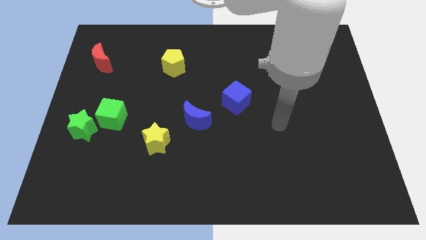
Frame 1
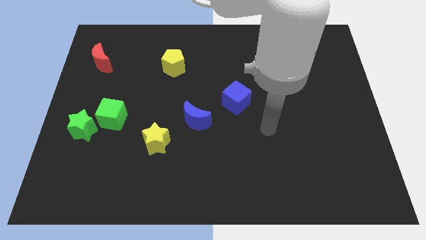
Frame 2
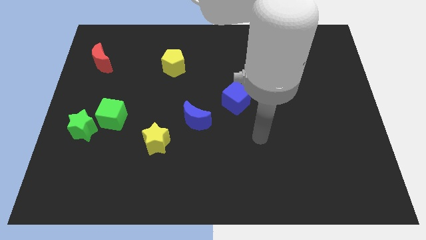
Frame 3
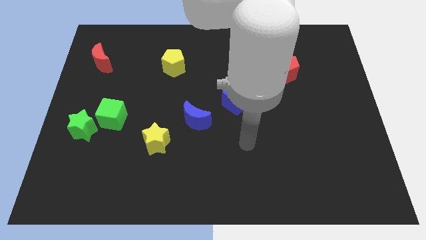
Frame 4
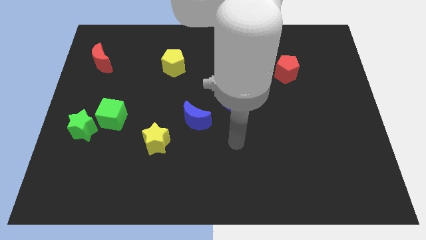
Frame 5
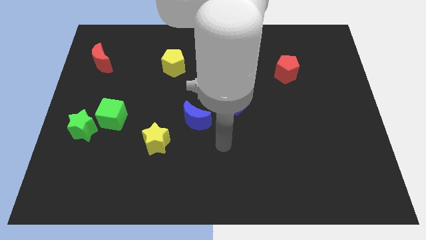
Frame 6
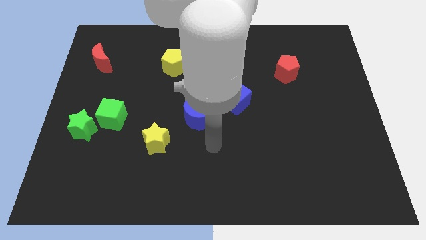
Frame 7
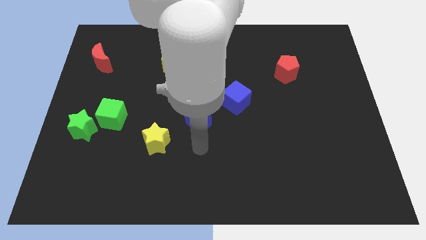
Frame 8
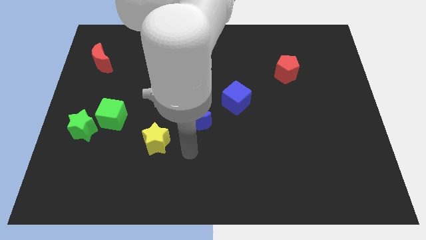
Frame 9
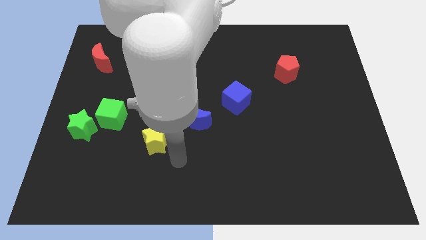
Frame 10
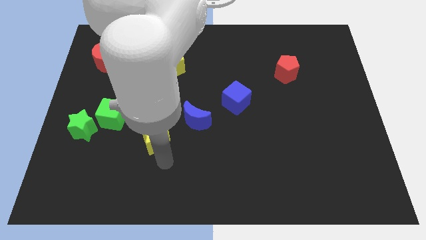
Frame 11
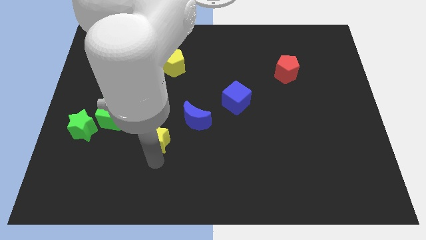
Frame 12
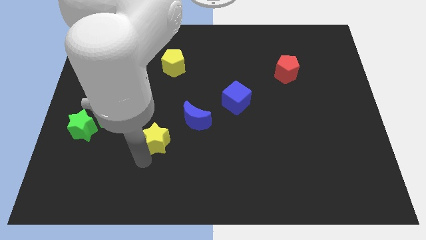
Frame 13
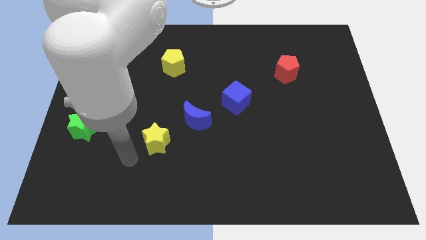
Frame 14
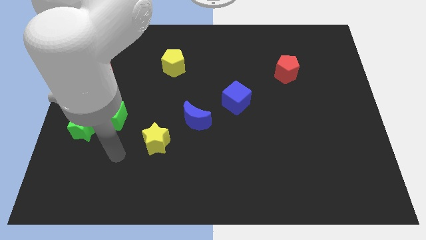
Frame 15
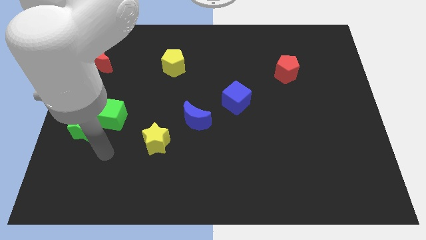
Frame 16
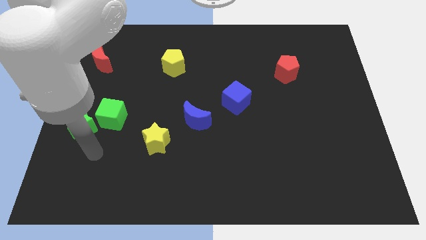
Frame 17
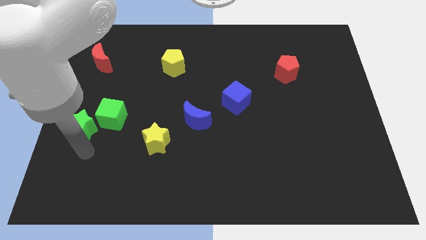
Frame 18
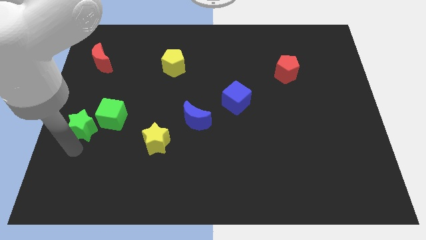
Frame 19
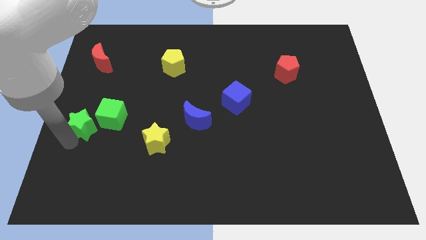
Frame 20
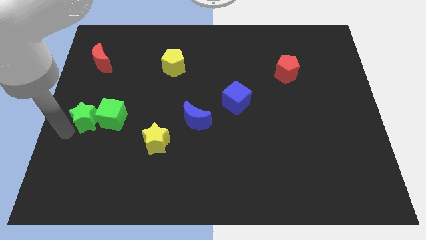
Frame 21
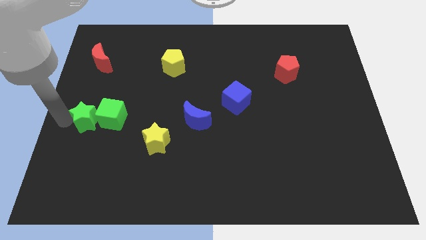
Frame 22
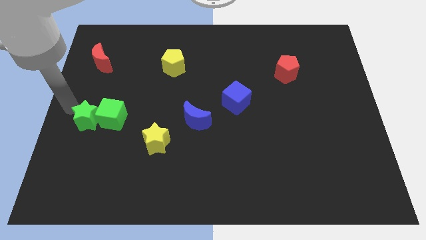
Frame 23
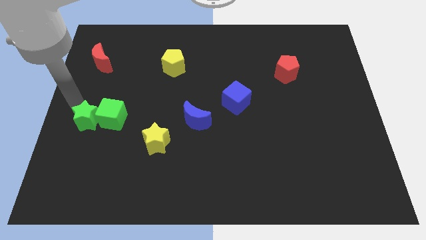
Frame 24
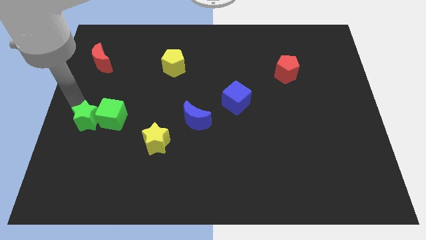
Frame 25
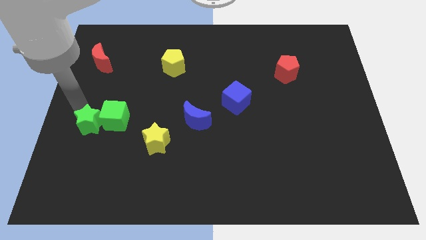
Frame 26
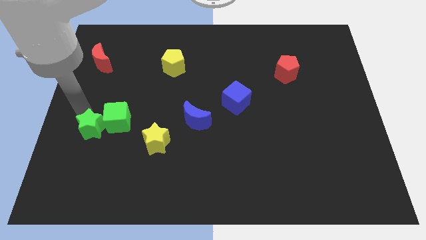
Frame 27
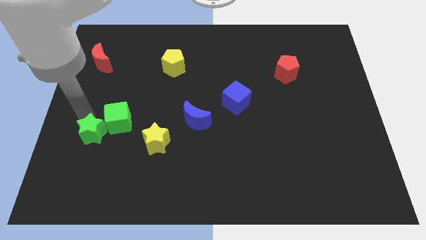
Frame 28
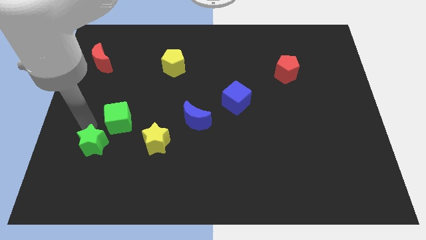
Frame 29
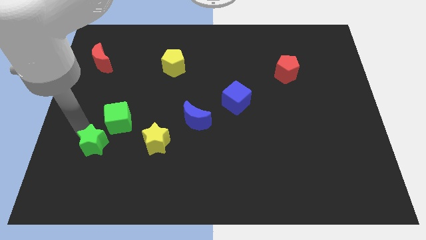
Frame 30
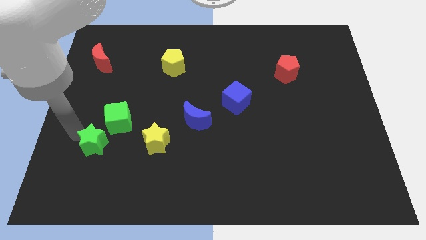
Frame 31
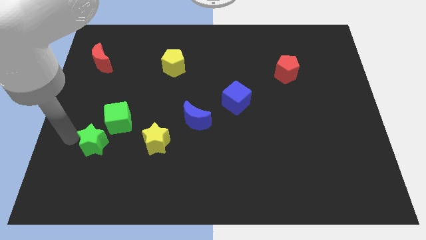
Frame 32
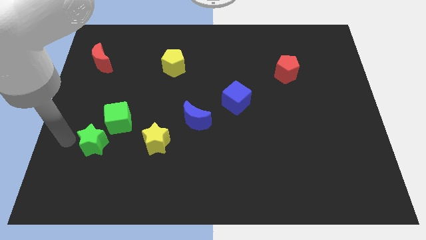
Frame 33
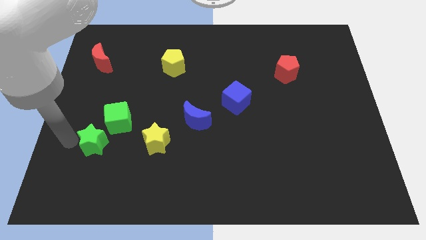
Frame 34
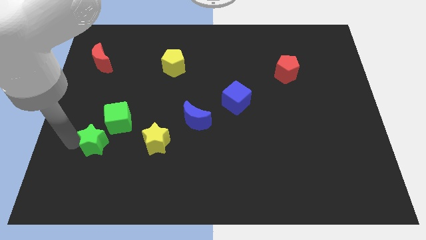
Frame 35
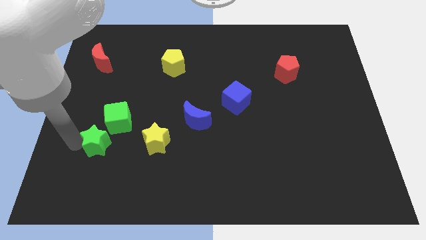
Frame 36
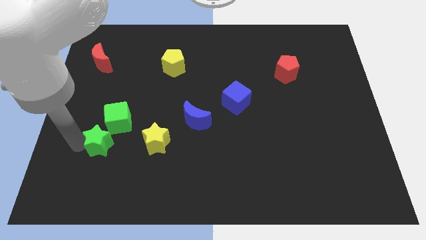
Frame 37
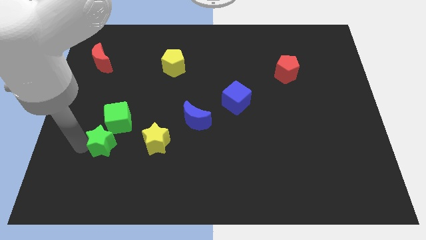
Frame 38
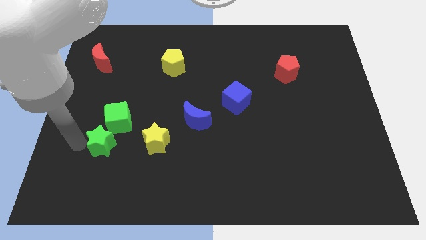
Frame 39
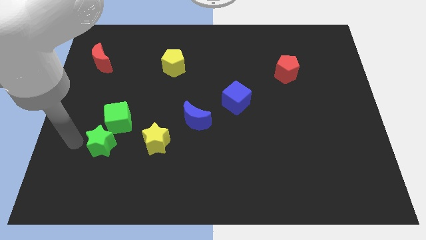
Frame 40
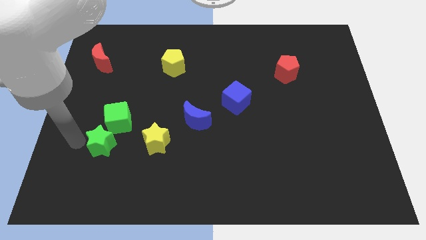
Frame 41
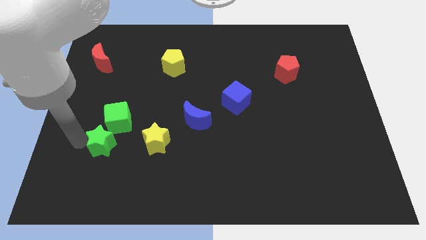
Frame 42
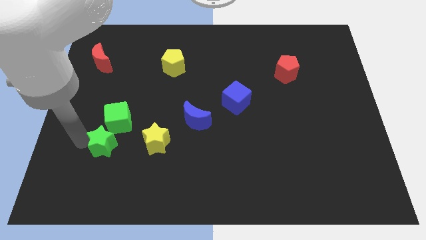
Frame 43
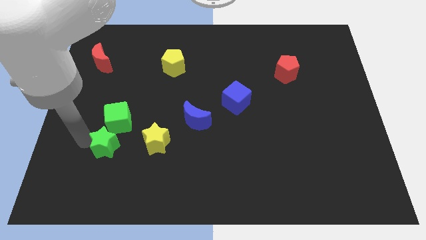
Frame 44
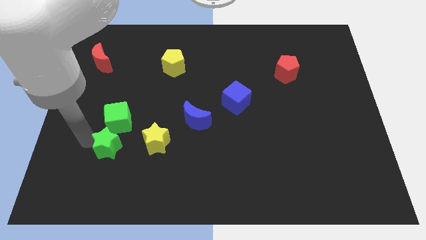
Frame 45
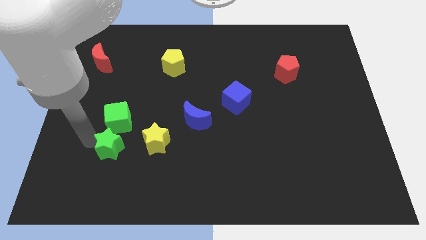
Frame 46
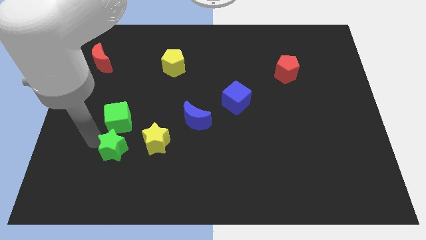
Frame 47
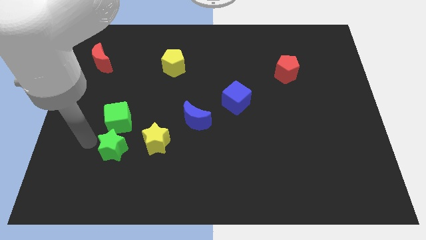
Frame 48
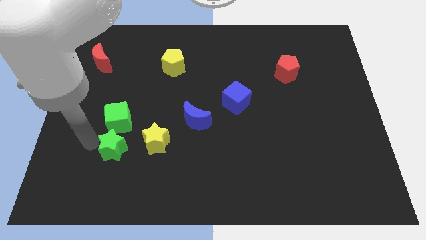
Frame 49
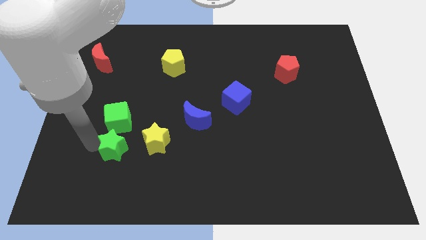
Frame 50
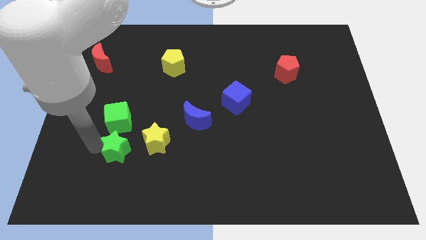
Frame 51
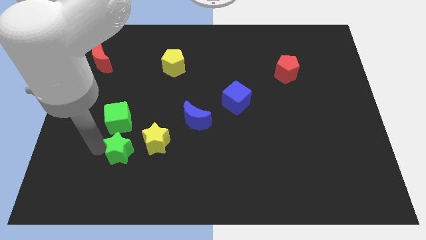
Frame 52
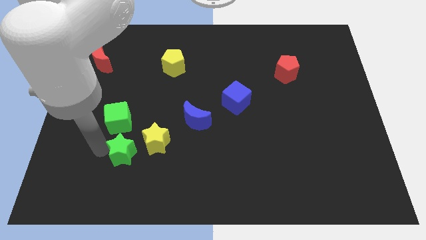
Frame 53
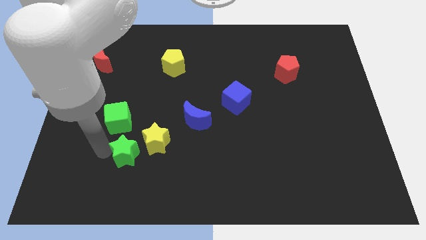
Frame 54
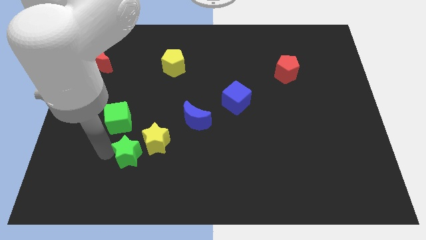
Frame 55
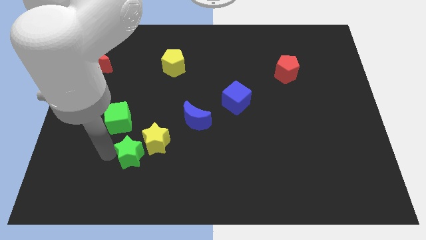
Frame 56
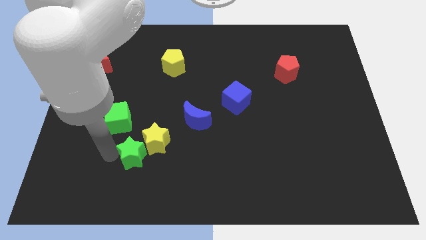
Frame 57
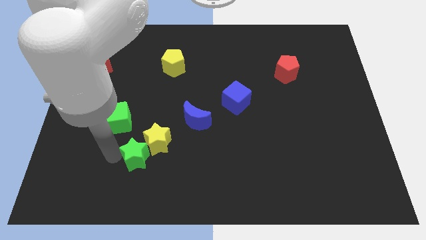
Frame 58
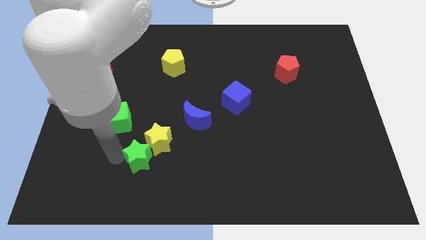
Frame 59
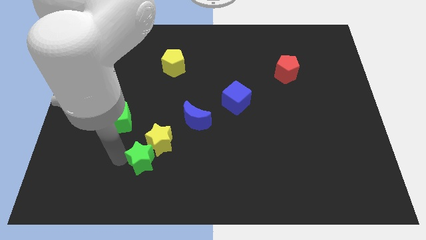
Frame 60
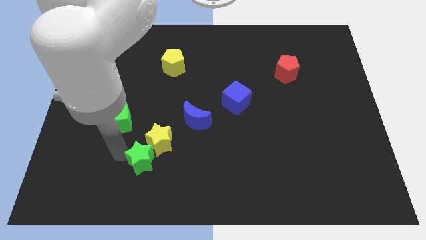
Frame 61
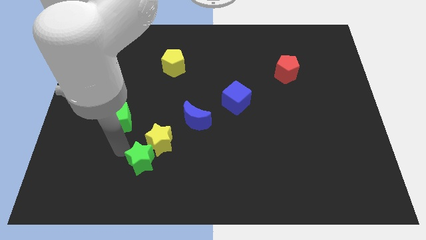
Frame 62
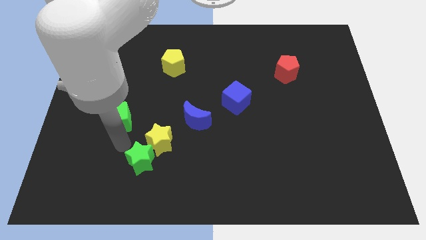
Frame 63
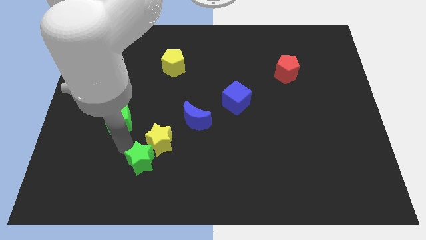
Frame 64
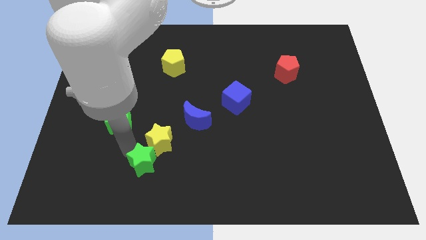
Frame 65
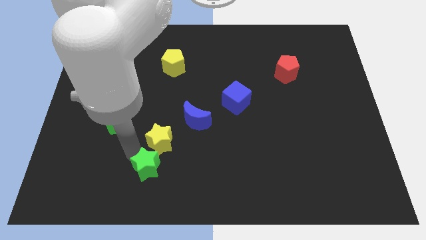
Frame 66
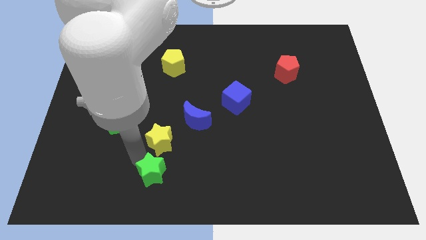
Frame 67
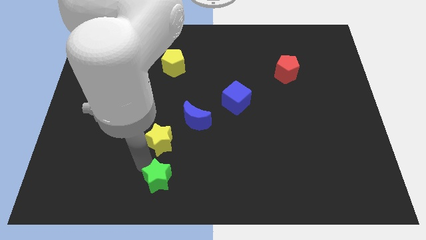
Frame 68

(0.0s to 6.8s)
push the green star to the bottom side

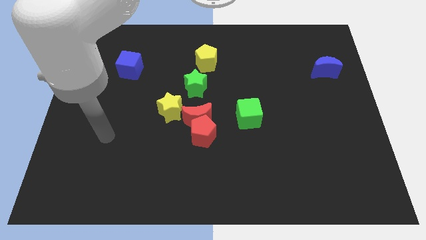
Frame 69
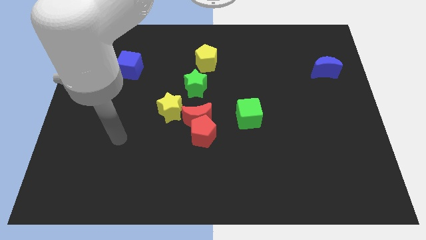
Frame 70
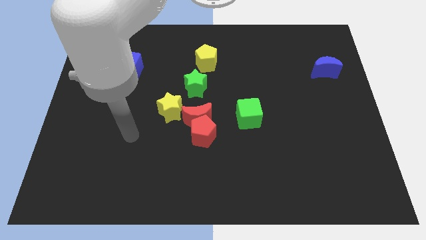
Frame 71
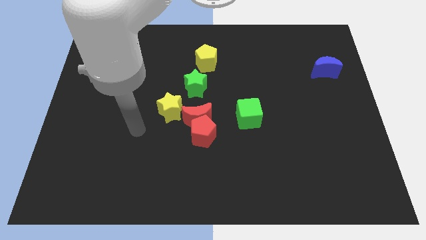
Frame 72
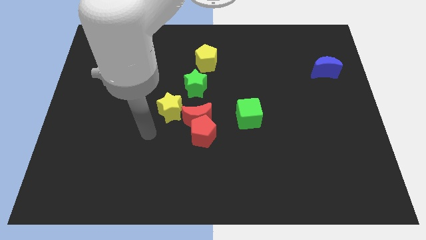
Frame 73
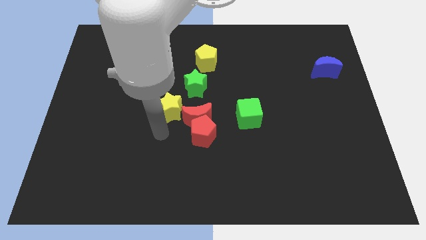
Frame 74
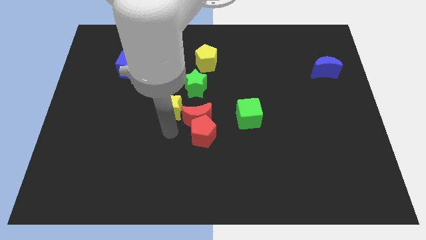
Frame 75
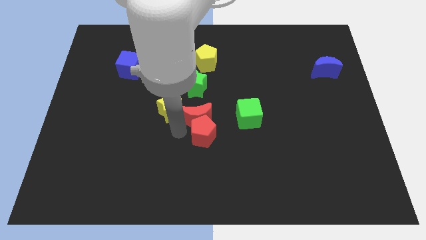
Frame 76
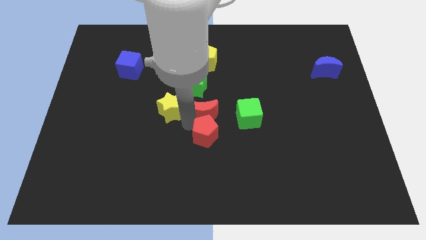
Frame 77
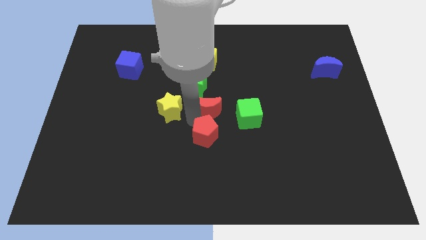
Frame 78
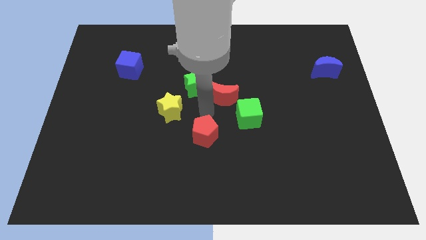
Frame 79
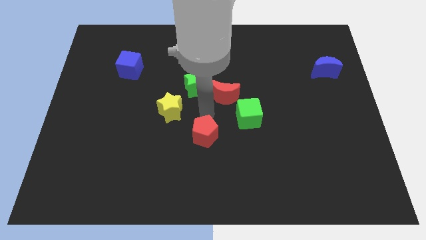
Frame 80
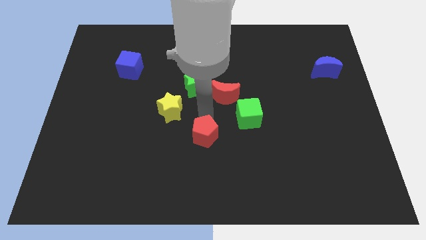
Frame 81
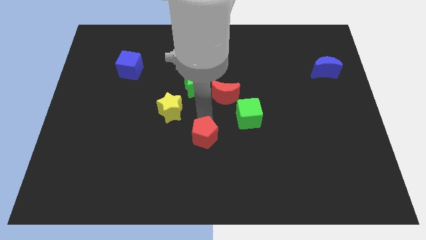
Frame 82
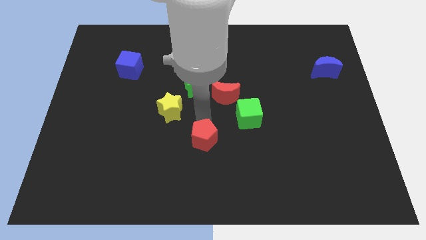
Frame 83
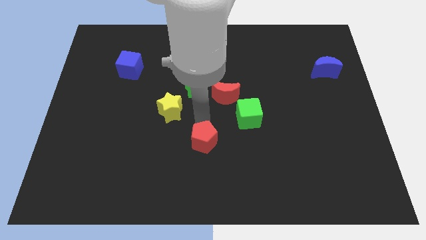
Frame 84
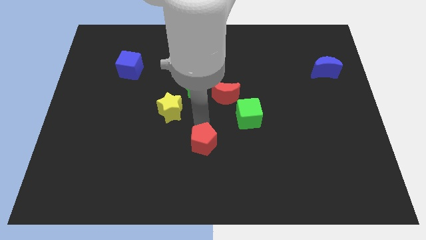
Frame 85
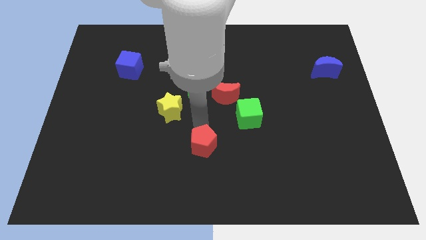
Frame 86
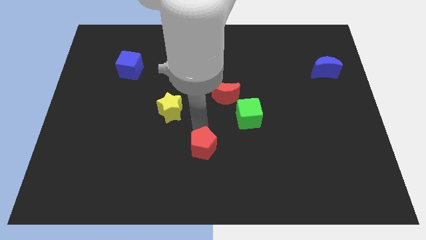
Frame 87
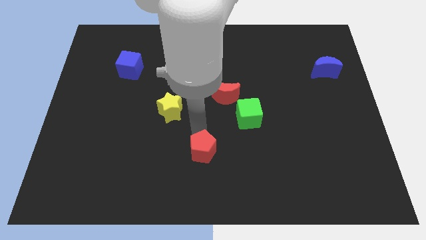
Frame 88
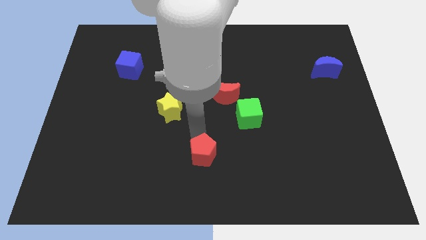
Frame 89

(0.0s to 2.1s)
put the red pentagon to the bottom
